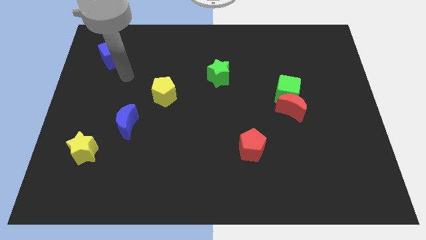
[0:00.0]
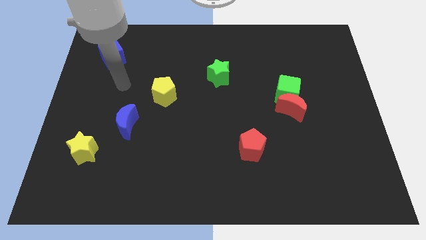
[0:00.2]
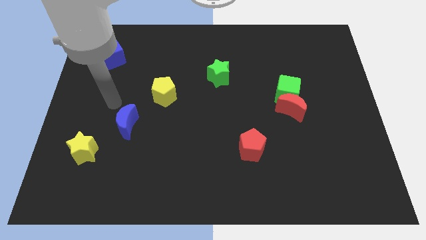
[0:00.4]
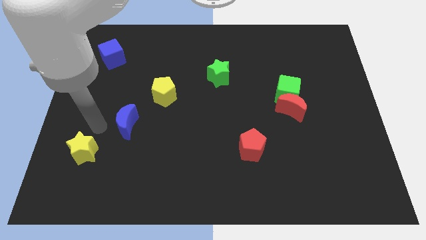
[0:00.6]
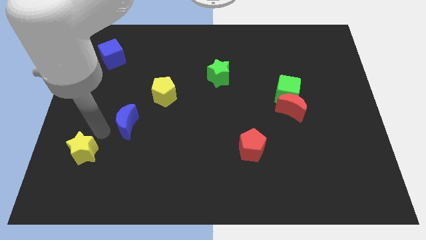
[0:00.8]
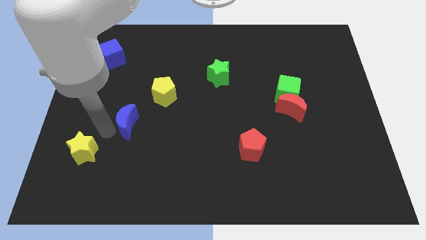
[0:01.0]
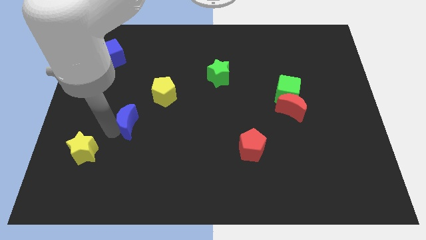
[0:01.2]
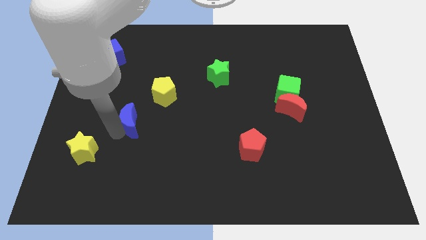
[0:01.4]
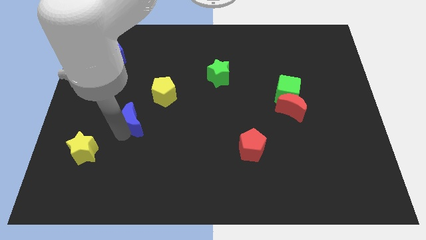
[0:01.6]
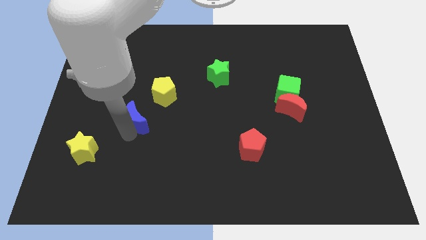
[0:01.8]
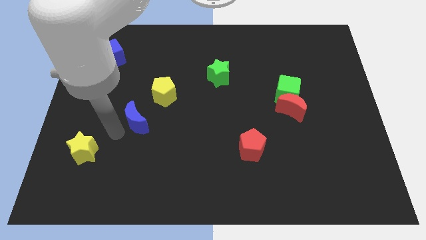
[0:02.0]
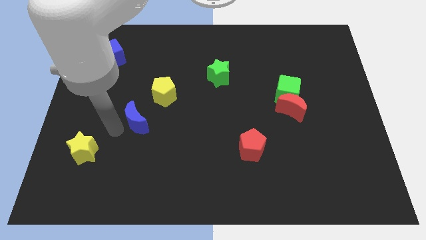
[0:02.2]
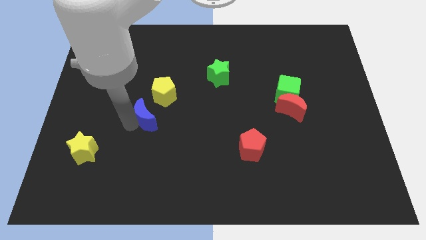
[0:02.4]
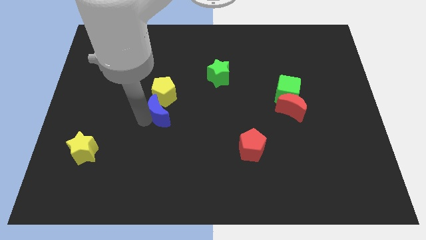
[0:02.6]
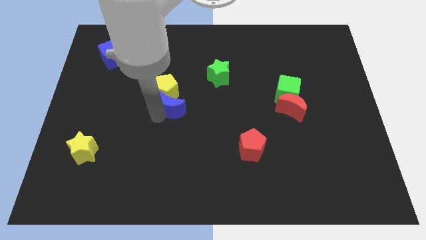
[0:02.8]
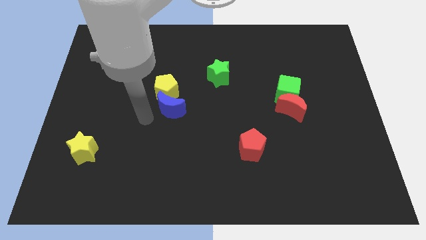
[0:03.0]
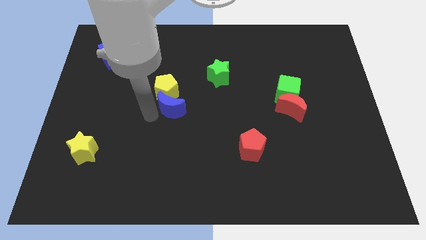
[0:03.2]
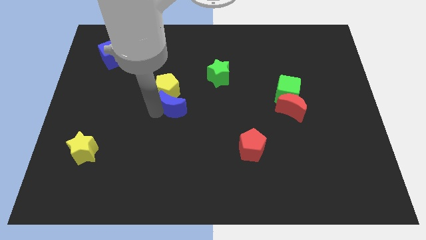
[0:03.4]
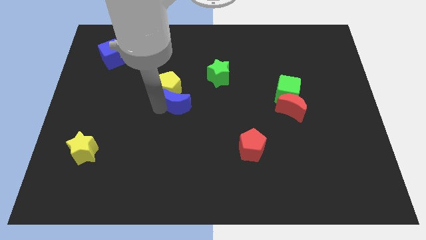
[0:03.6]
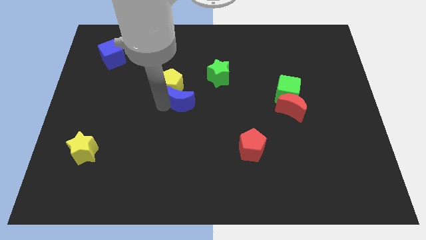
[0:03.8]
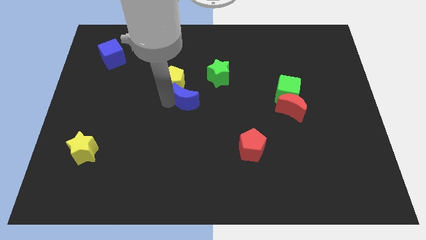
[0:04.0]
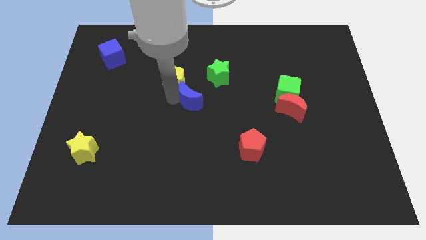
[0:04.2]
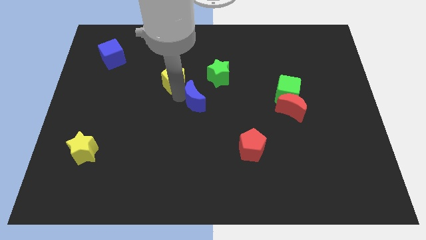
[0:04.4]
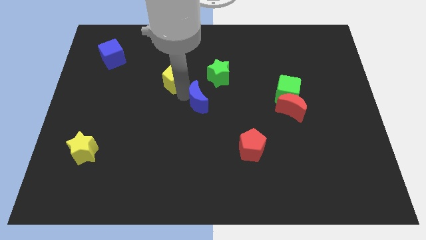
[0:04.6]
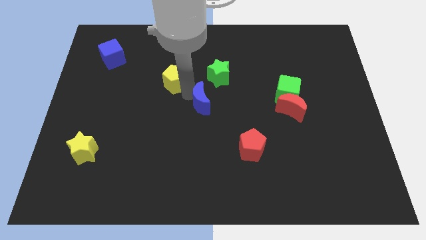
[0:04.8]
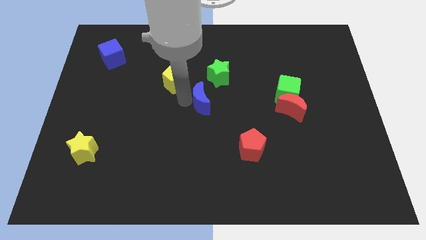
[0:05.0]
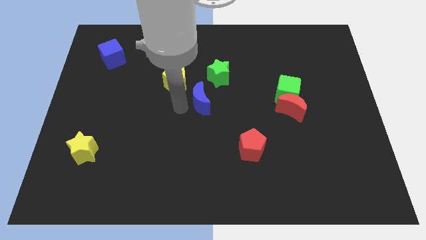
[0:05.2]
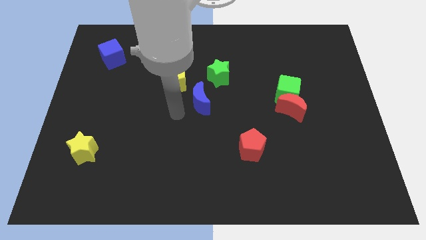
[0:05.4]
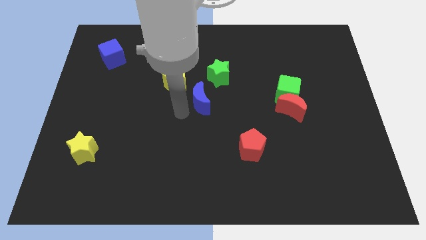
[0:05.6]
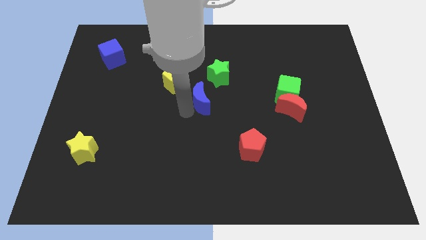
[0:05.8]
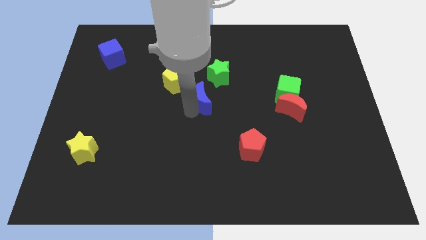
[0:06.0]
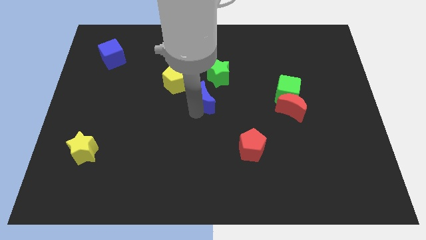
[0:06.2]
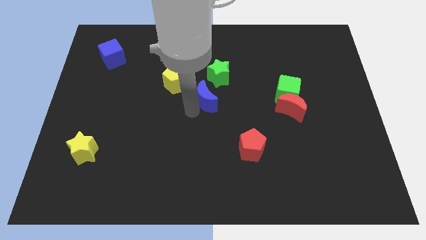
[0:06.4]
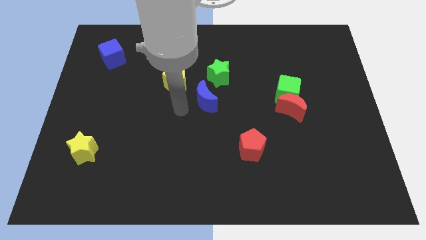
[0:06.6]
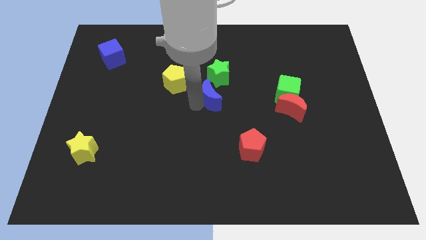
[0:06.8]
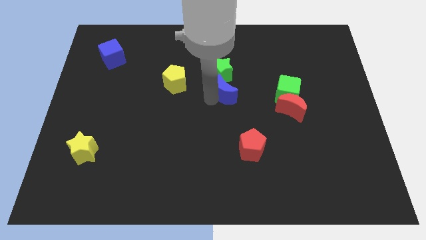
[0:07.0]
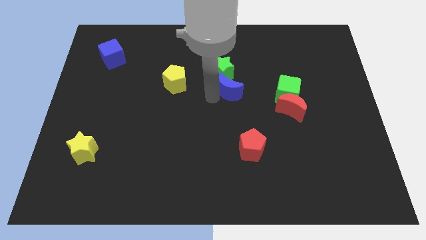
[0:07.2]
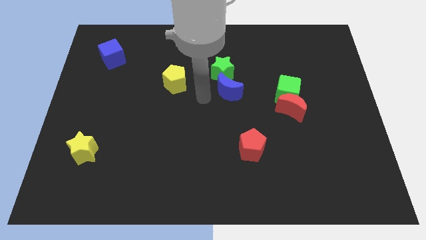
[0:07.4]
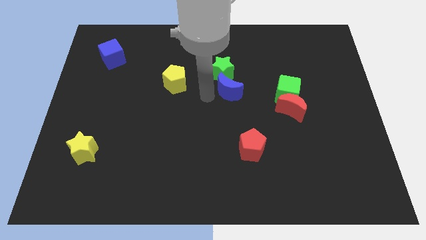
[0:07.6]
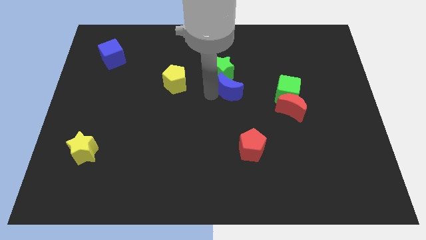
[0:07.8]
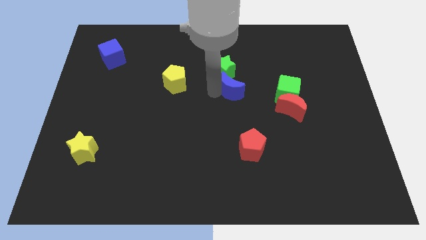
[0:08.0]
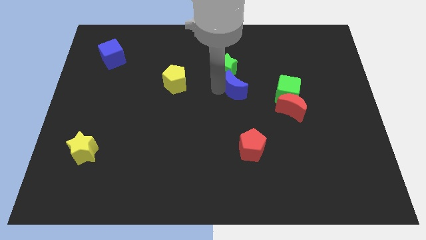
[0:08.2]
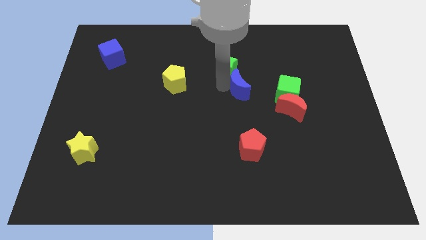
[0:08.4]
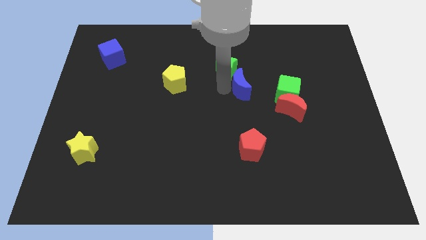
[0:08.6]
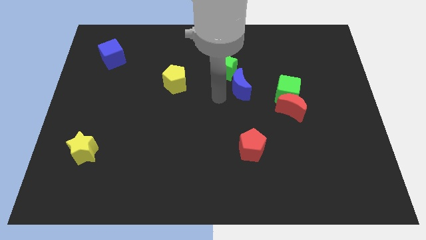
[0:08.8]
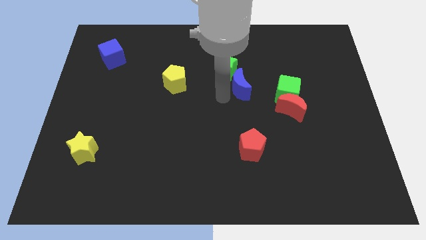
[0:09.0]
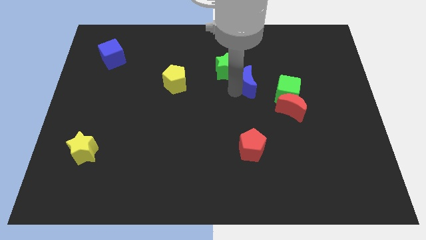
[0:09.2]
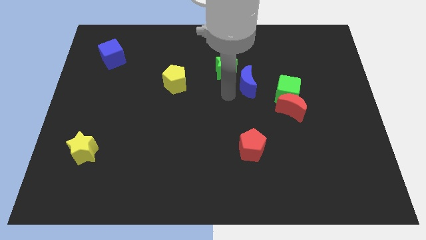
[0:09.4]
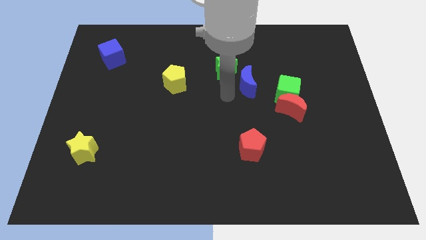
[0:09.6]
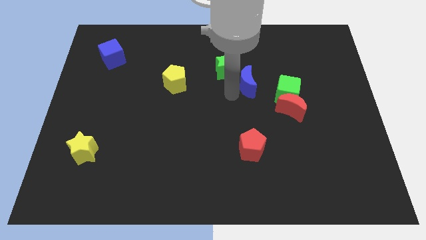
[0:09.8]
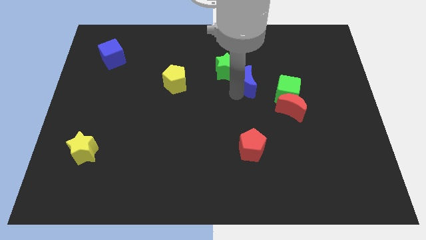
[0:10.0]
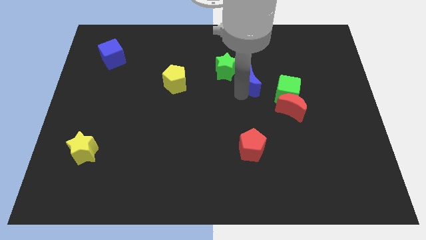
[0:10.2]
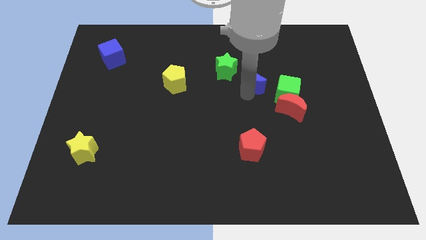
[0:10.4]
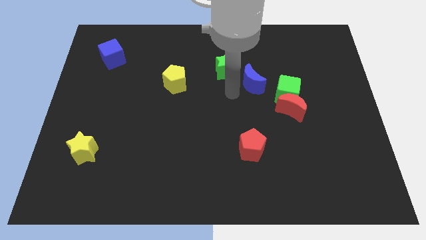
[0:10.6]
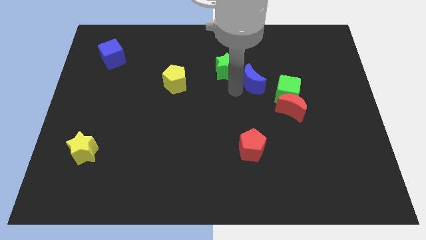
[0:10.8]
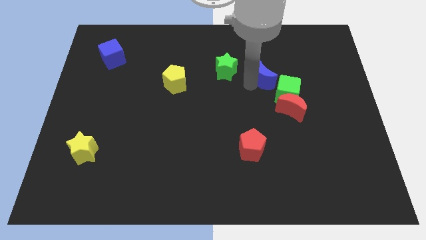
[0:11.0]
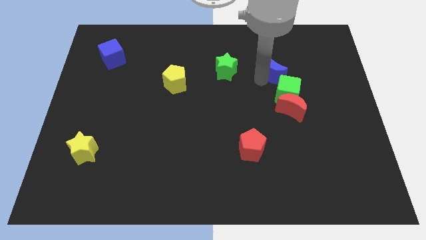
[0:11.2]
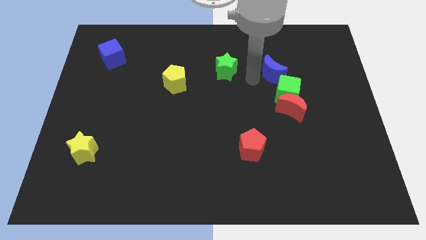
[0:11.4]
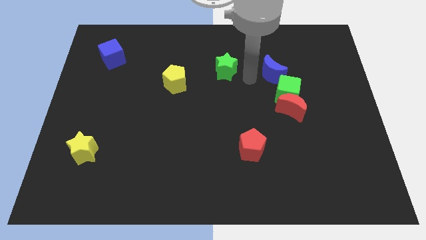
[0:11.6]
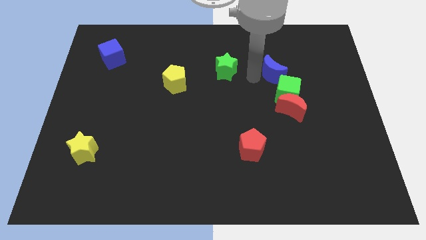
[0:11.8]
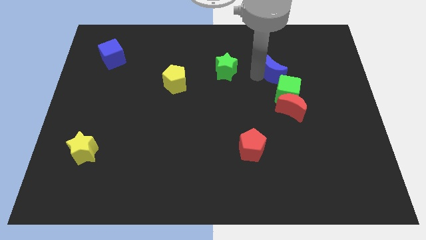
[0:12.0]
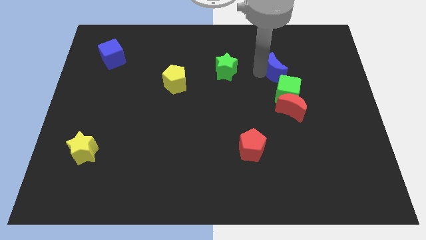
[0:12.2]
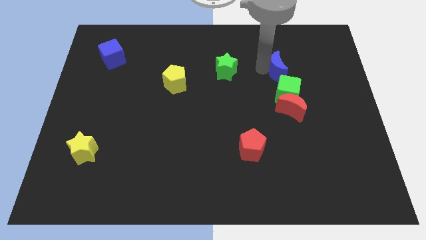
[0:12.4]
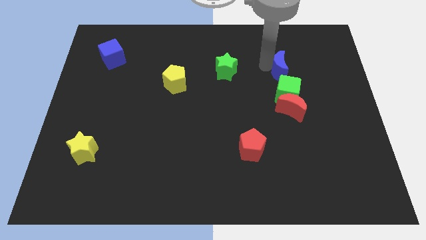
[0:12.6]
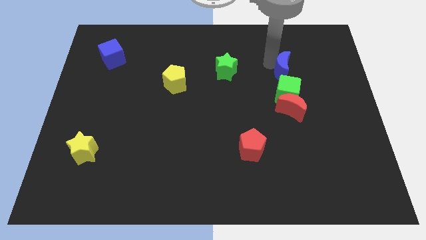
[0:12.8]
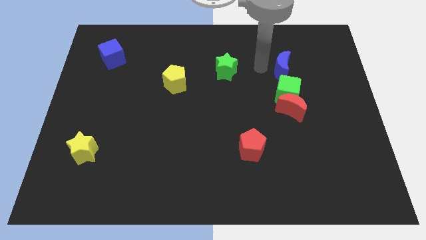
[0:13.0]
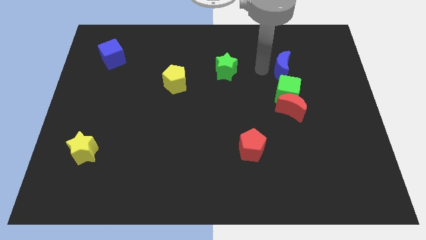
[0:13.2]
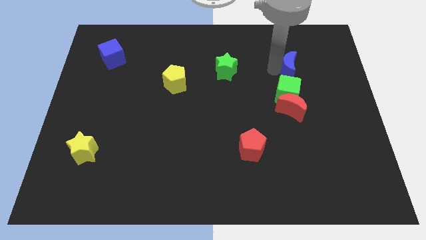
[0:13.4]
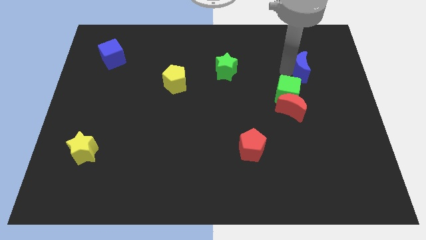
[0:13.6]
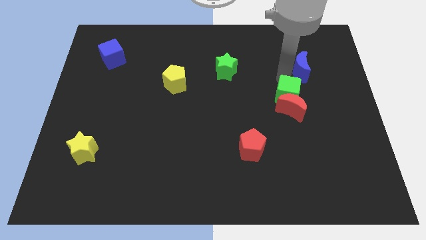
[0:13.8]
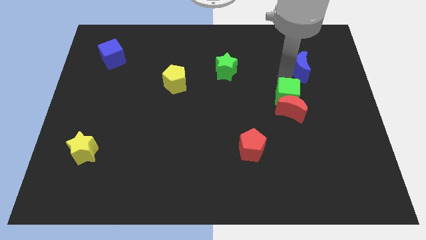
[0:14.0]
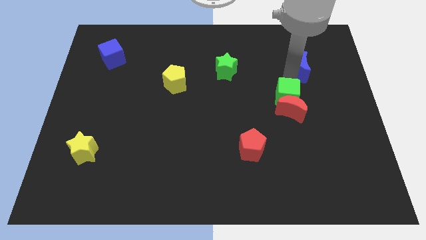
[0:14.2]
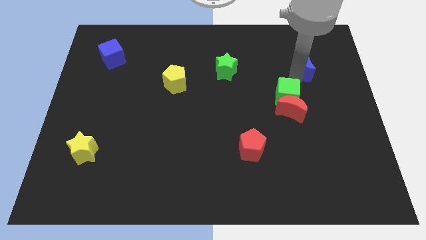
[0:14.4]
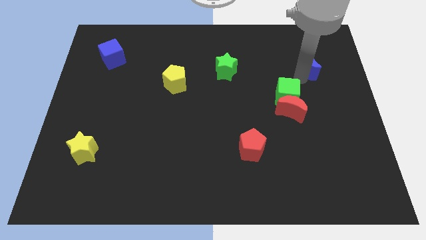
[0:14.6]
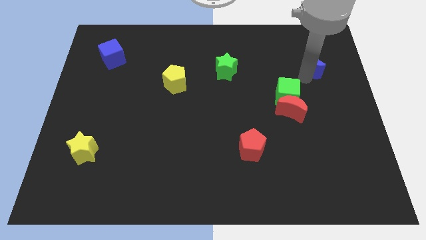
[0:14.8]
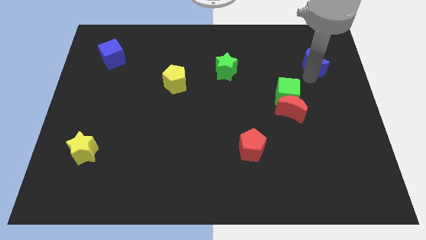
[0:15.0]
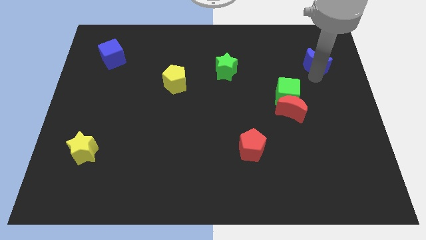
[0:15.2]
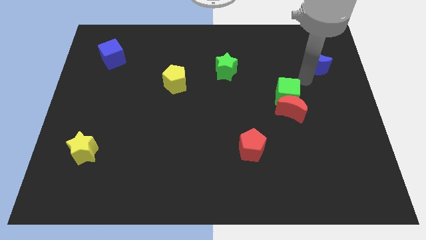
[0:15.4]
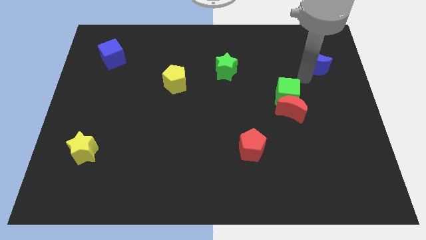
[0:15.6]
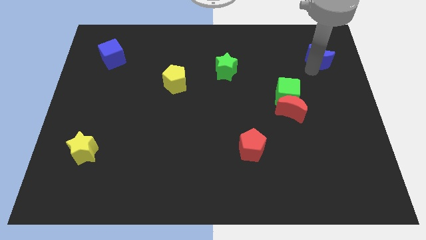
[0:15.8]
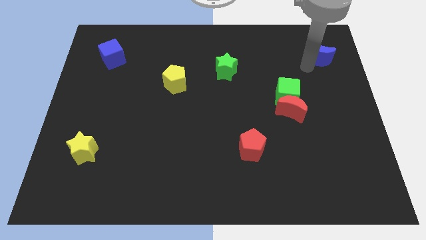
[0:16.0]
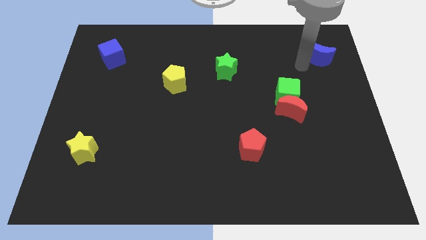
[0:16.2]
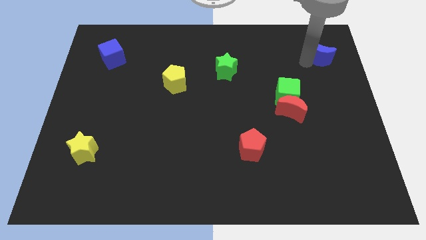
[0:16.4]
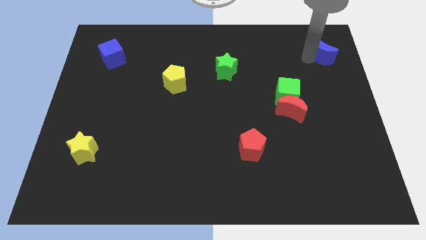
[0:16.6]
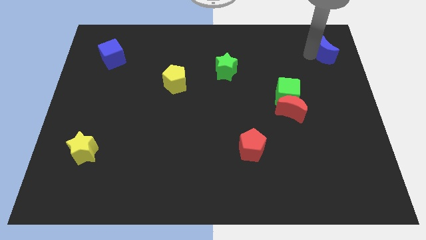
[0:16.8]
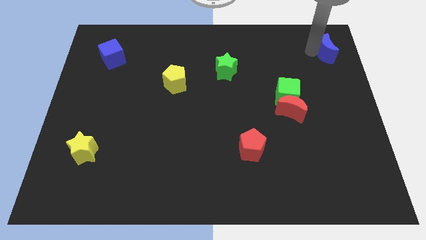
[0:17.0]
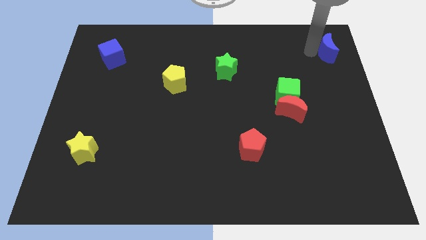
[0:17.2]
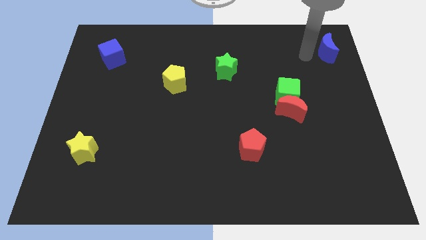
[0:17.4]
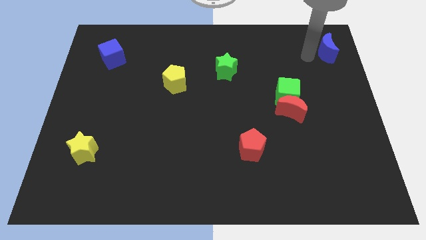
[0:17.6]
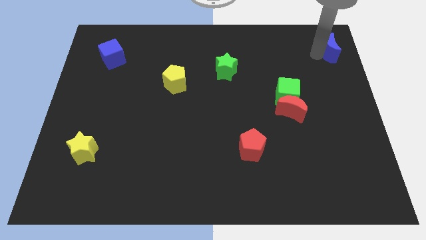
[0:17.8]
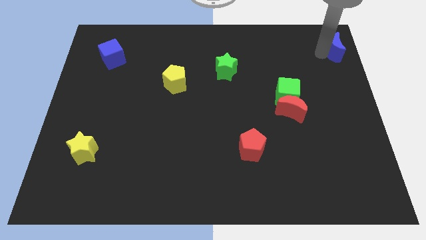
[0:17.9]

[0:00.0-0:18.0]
move the blue moon to the top right of the board
